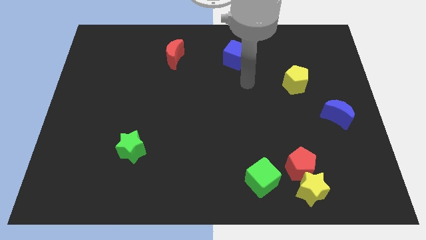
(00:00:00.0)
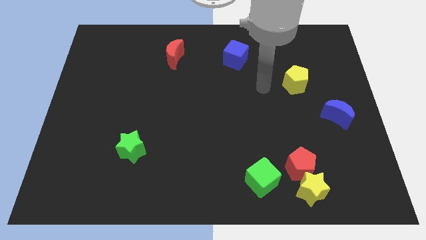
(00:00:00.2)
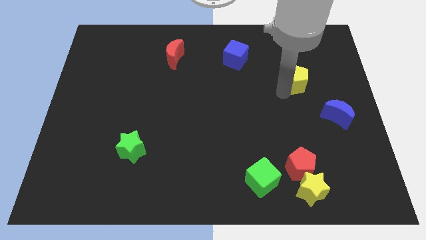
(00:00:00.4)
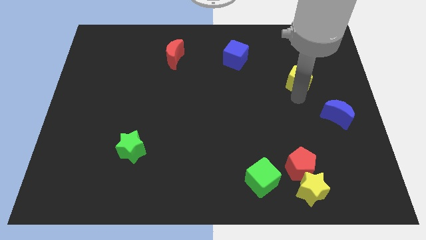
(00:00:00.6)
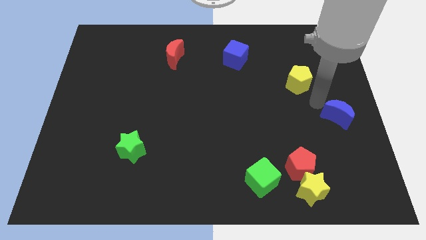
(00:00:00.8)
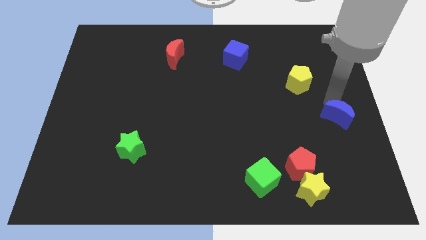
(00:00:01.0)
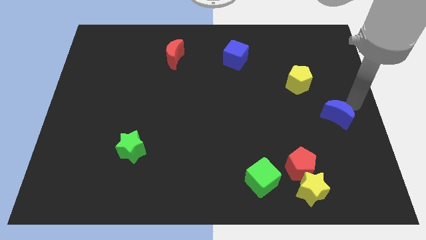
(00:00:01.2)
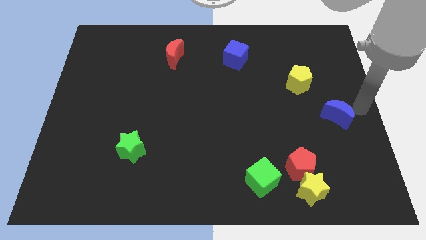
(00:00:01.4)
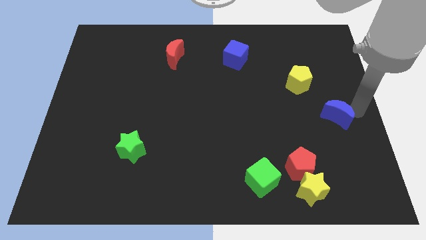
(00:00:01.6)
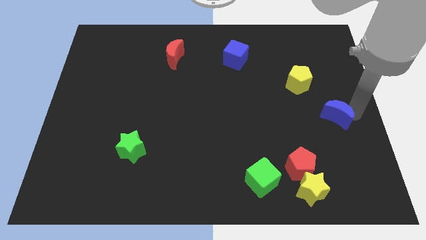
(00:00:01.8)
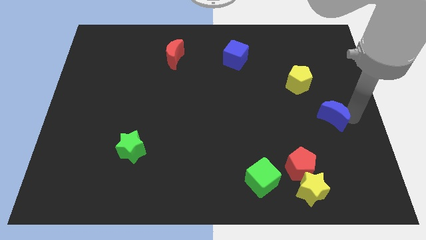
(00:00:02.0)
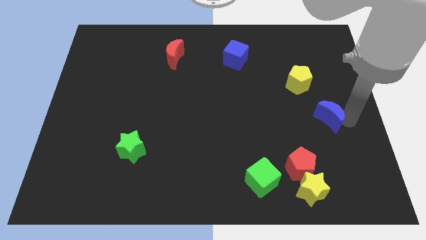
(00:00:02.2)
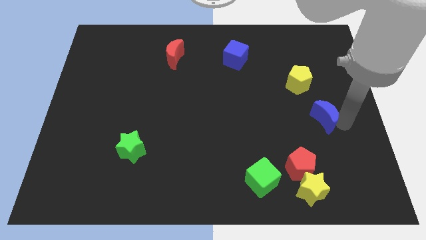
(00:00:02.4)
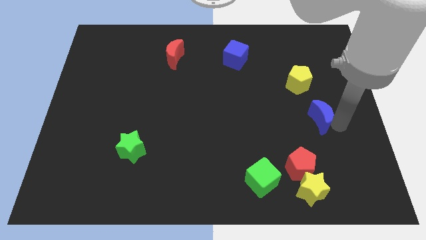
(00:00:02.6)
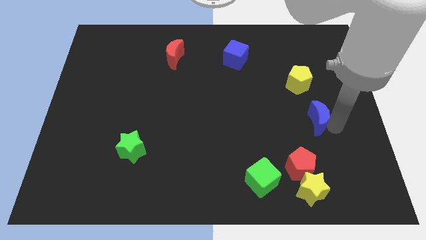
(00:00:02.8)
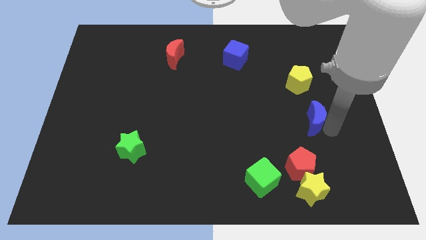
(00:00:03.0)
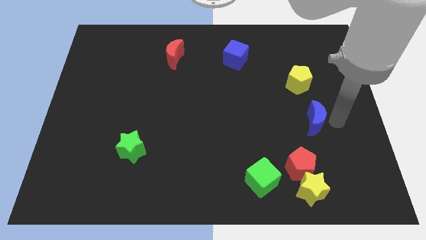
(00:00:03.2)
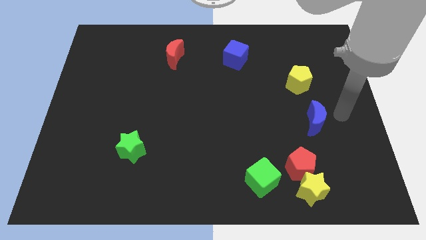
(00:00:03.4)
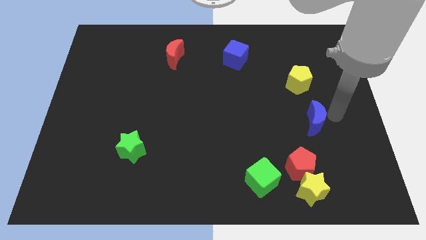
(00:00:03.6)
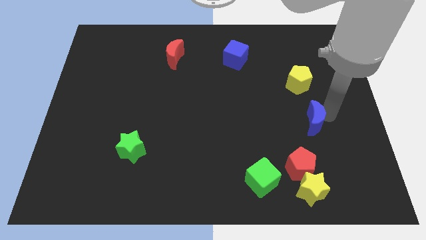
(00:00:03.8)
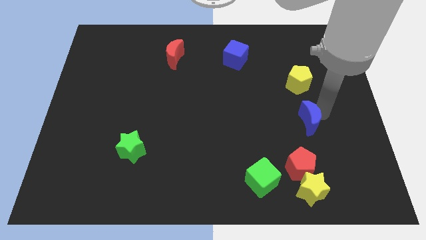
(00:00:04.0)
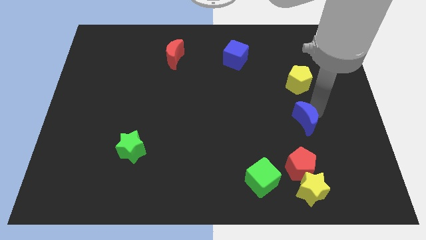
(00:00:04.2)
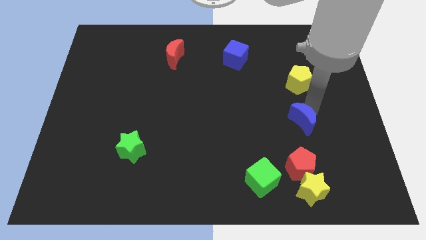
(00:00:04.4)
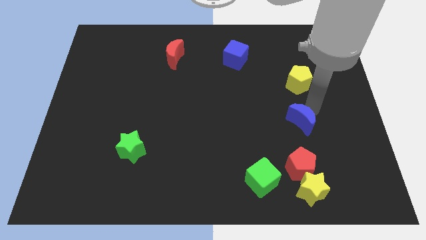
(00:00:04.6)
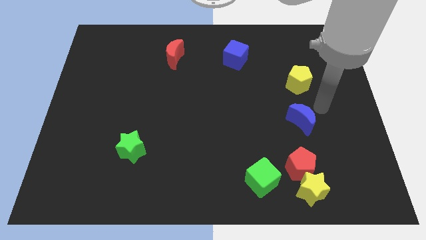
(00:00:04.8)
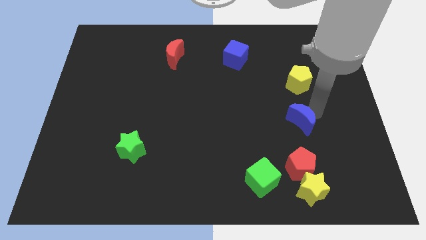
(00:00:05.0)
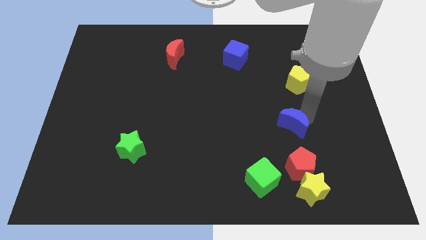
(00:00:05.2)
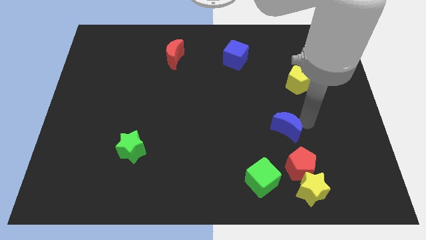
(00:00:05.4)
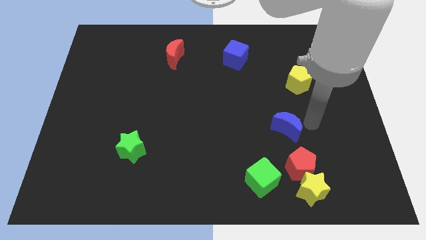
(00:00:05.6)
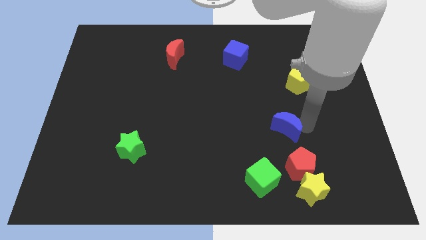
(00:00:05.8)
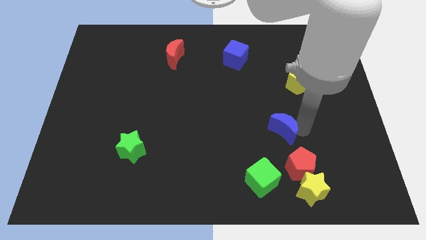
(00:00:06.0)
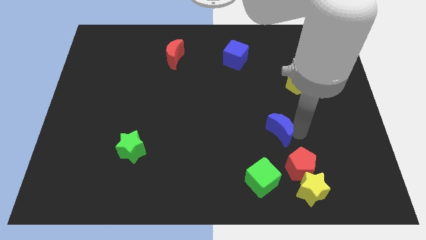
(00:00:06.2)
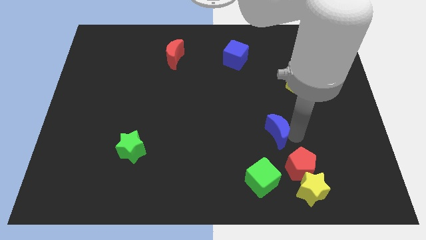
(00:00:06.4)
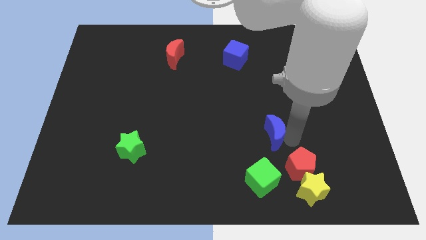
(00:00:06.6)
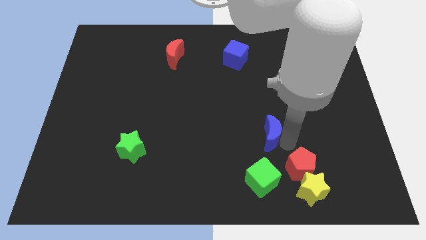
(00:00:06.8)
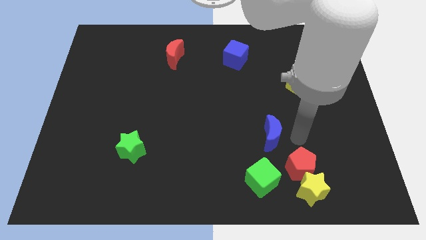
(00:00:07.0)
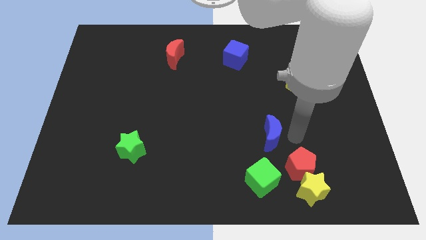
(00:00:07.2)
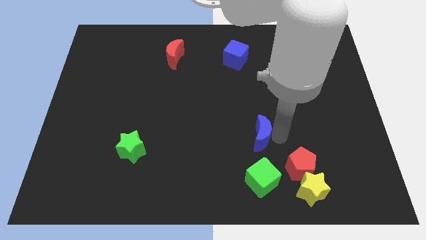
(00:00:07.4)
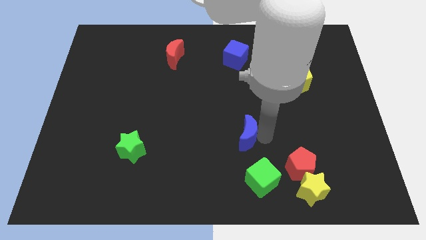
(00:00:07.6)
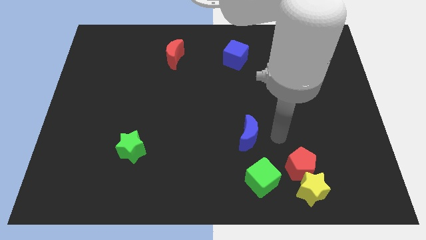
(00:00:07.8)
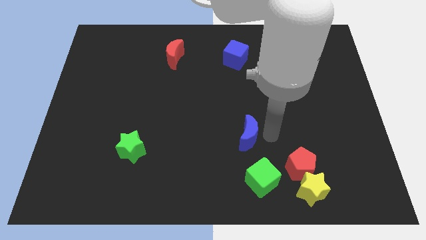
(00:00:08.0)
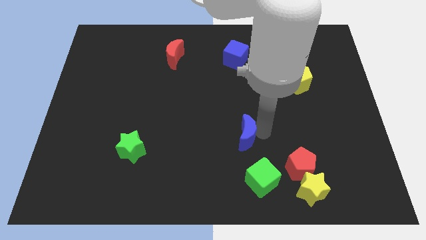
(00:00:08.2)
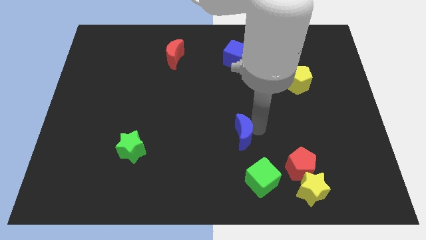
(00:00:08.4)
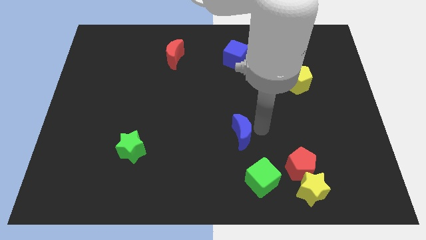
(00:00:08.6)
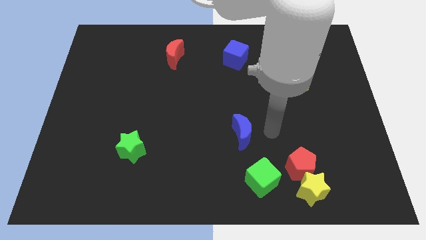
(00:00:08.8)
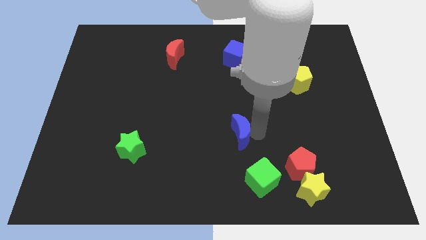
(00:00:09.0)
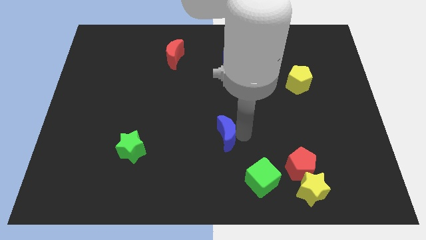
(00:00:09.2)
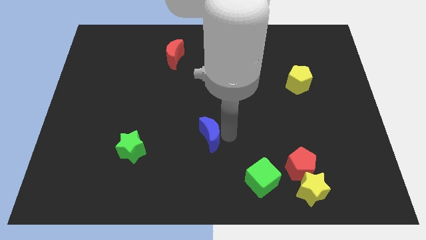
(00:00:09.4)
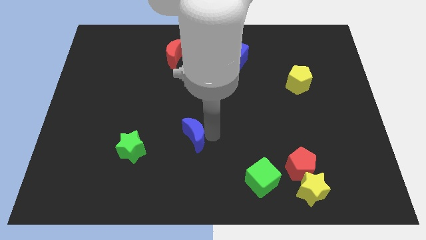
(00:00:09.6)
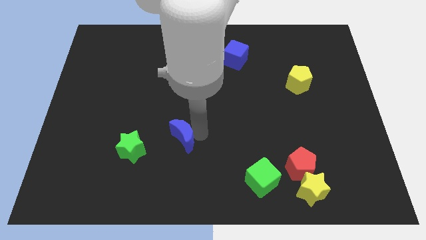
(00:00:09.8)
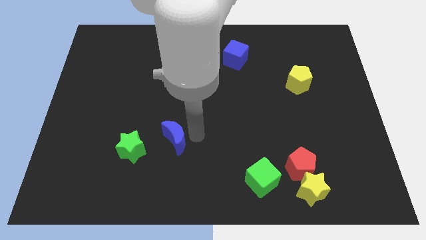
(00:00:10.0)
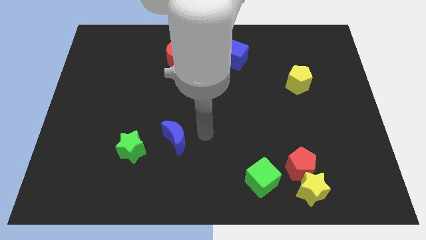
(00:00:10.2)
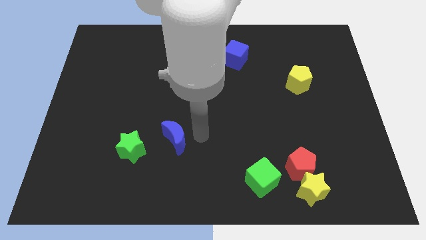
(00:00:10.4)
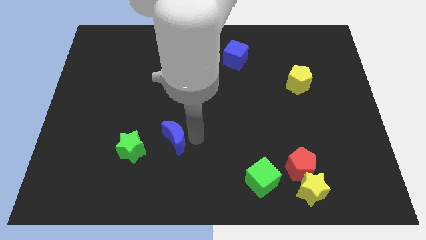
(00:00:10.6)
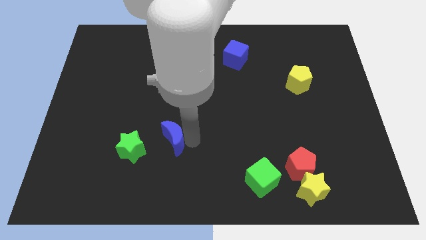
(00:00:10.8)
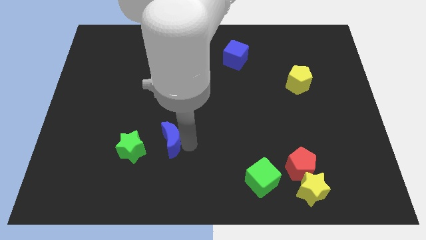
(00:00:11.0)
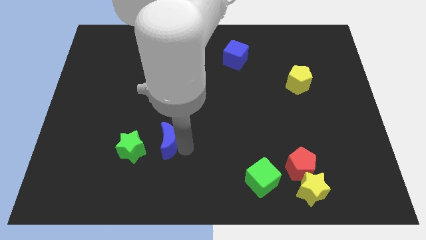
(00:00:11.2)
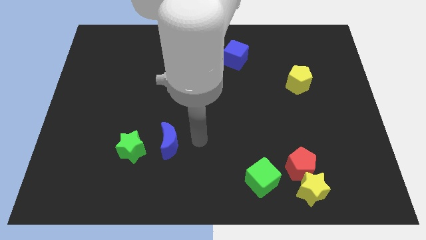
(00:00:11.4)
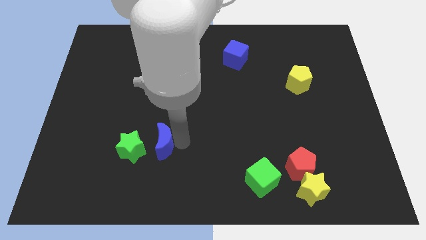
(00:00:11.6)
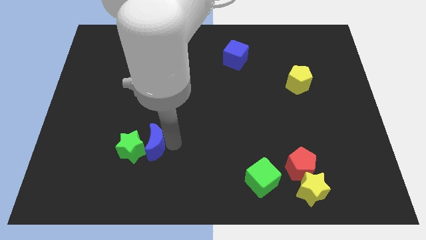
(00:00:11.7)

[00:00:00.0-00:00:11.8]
put the blue moon next to the green star

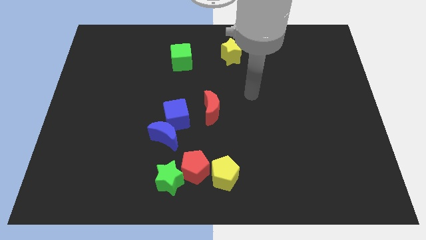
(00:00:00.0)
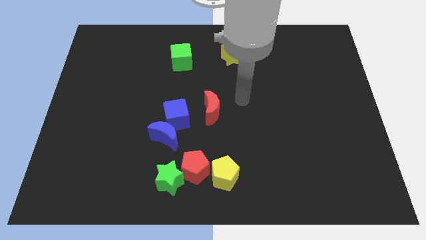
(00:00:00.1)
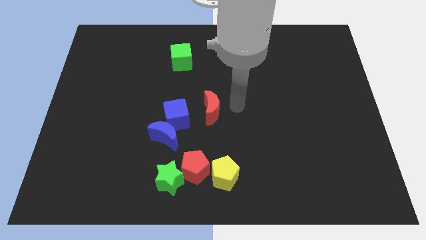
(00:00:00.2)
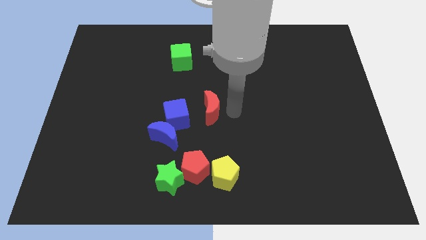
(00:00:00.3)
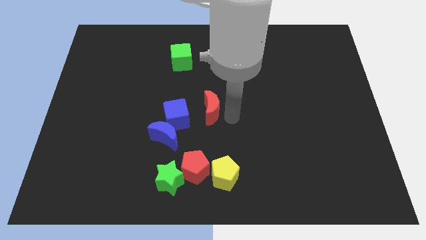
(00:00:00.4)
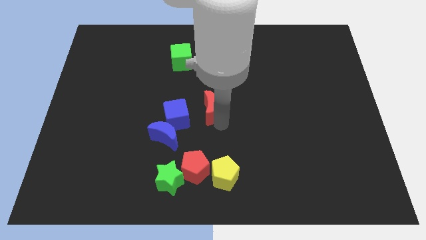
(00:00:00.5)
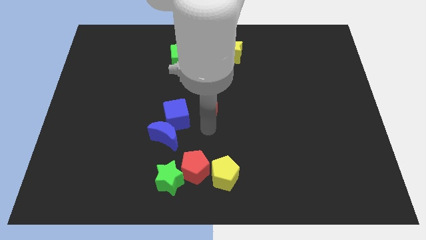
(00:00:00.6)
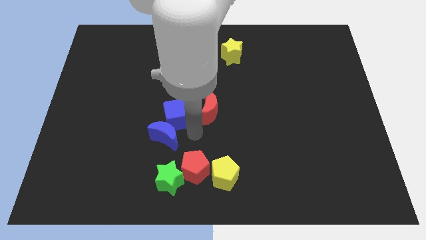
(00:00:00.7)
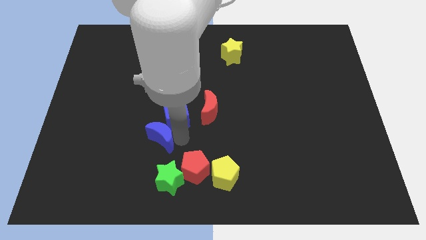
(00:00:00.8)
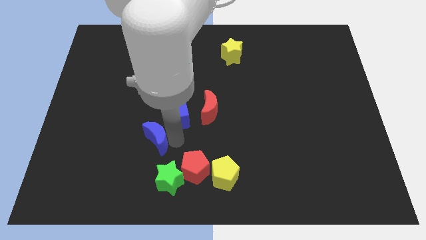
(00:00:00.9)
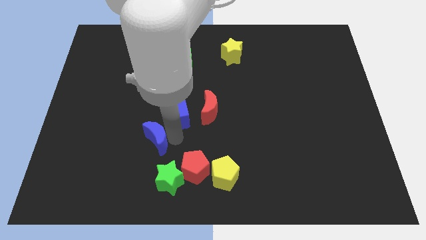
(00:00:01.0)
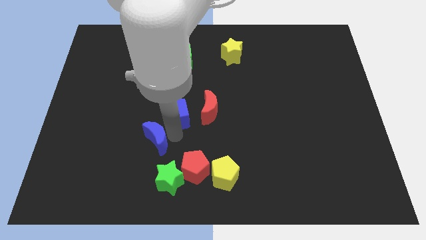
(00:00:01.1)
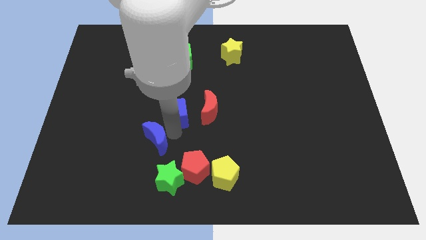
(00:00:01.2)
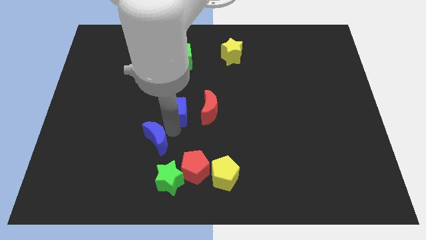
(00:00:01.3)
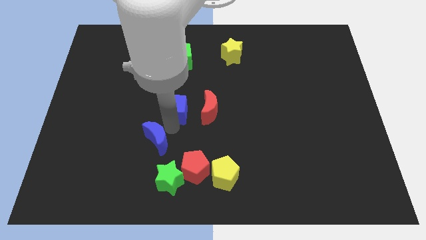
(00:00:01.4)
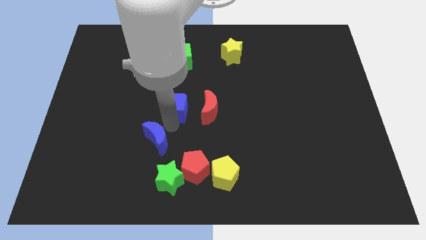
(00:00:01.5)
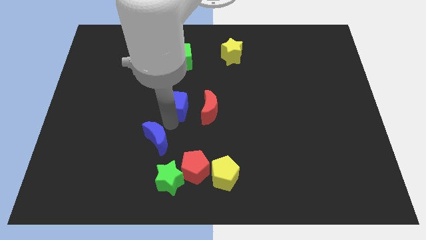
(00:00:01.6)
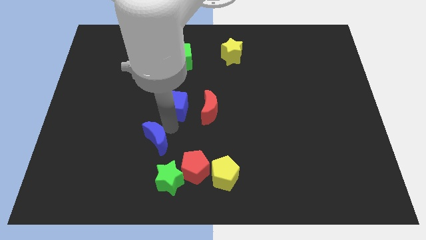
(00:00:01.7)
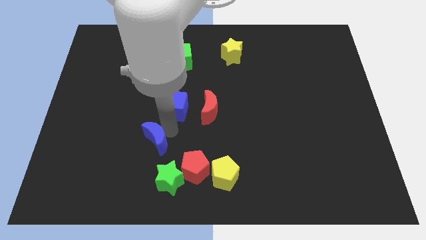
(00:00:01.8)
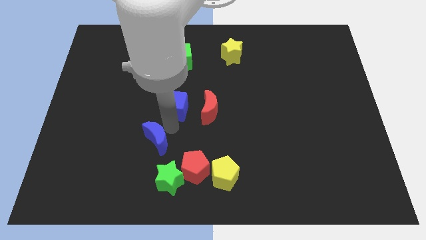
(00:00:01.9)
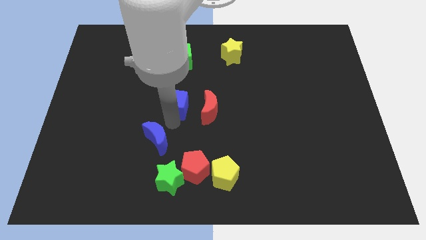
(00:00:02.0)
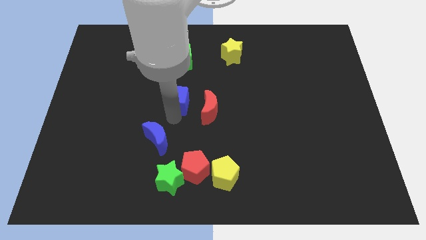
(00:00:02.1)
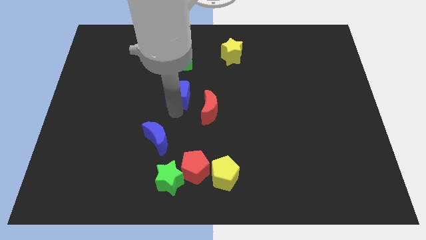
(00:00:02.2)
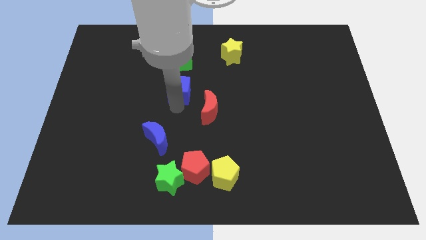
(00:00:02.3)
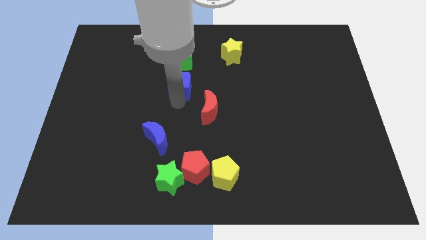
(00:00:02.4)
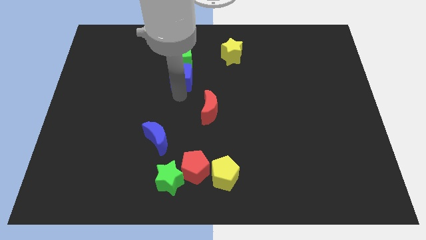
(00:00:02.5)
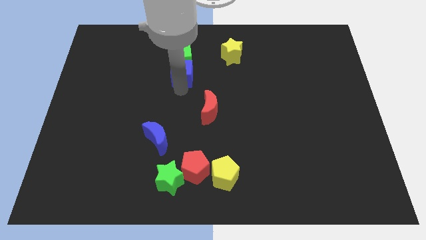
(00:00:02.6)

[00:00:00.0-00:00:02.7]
slide the blue cube towards the green cube
